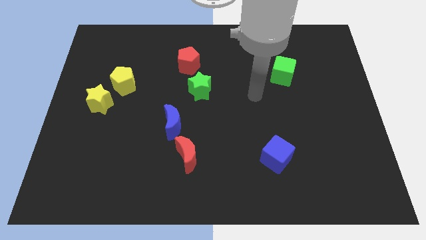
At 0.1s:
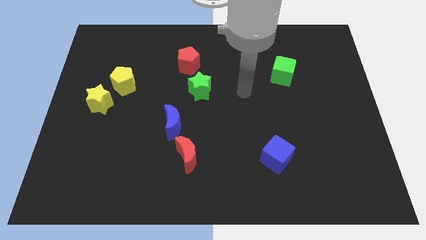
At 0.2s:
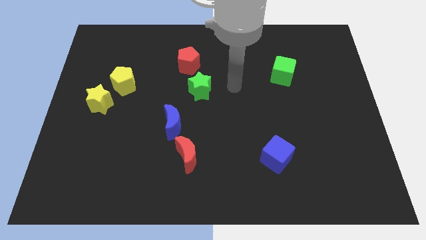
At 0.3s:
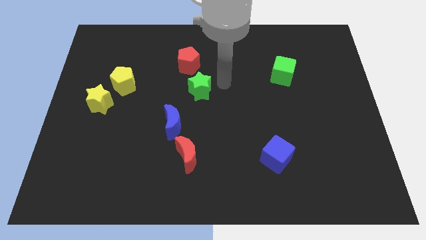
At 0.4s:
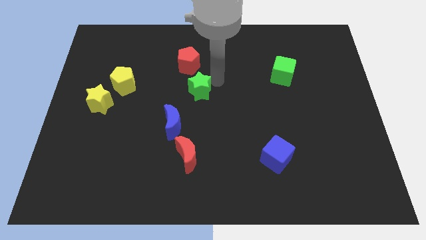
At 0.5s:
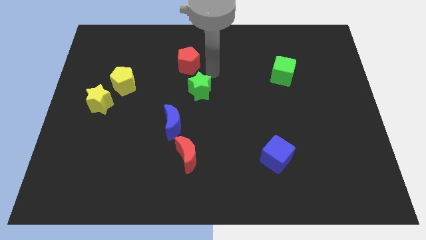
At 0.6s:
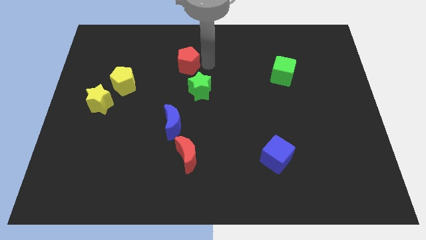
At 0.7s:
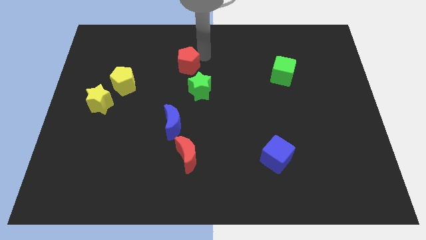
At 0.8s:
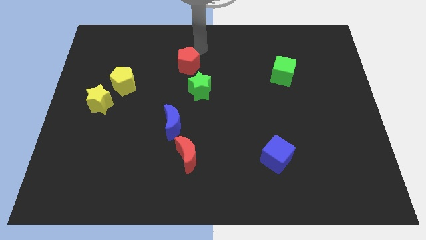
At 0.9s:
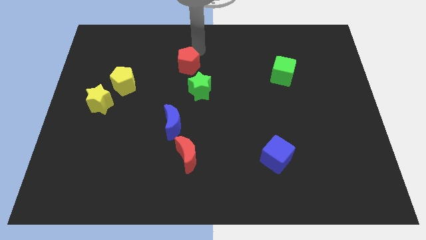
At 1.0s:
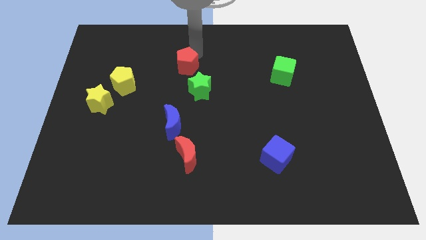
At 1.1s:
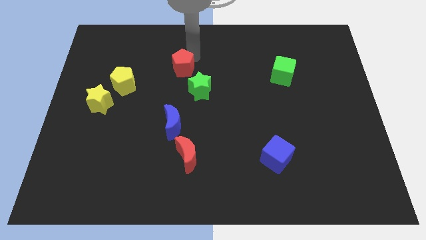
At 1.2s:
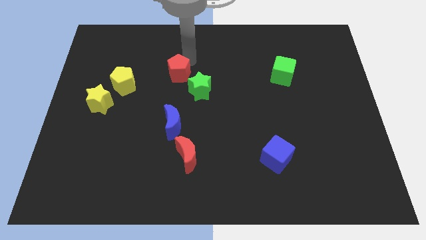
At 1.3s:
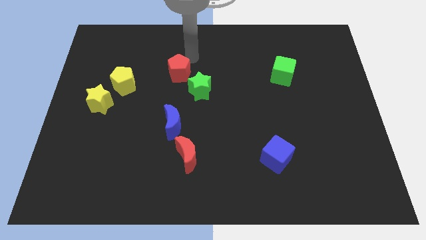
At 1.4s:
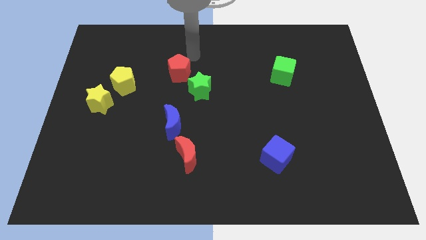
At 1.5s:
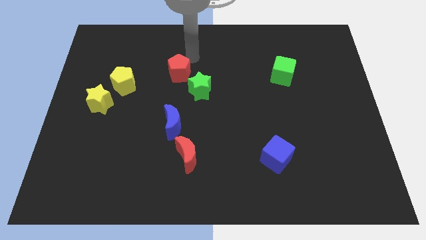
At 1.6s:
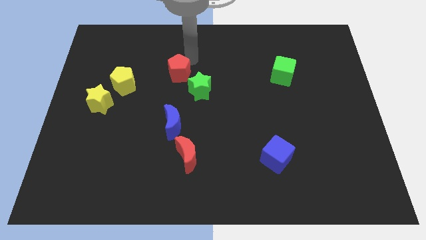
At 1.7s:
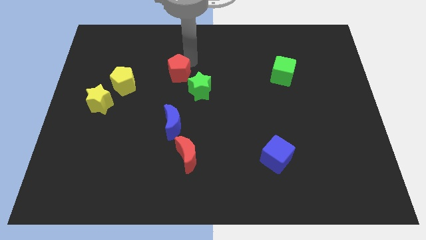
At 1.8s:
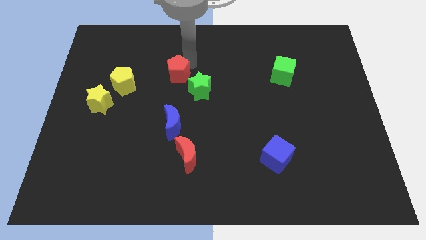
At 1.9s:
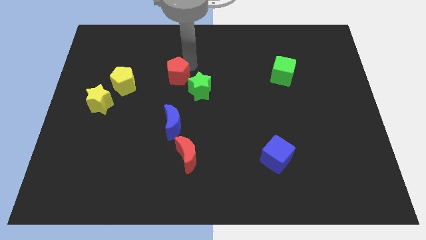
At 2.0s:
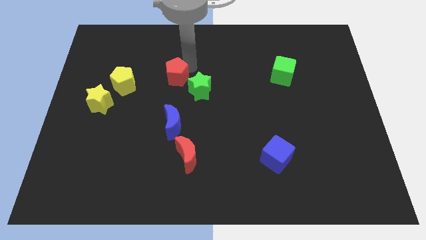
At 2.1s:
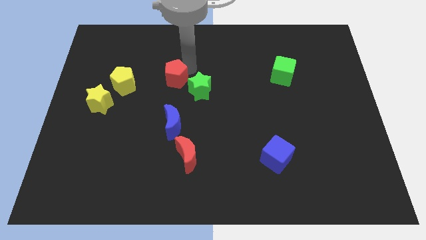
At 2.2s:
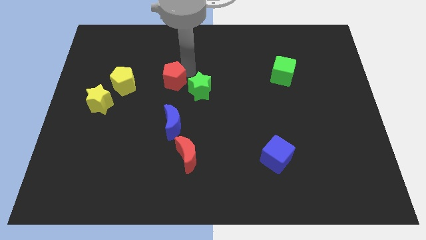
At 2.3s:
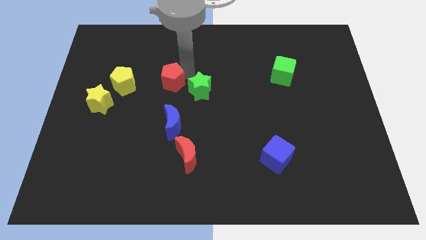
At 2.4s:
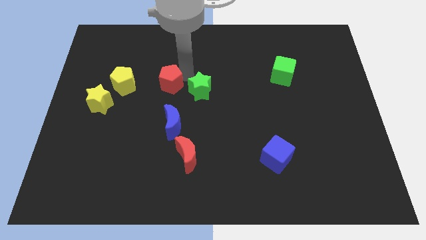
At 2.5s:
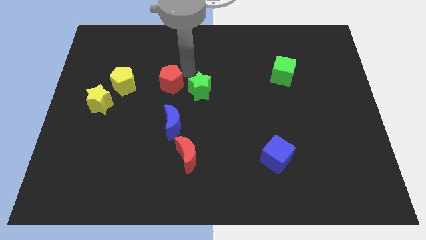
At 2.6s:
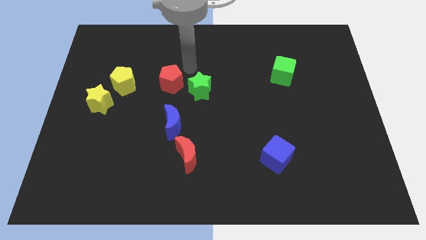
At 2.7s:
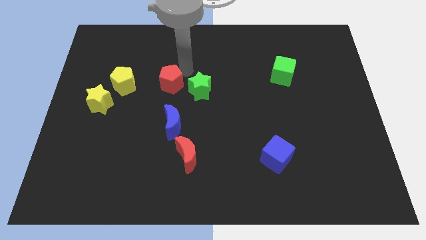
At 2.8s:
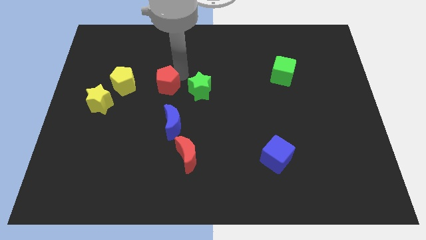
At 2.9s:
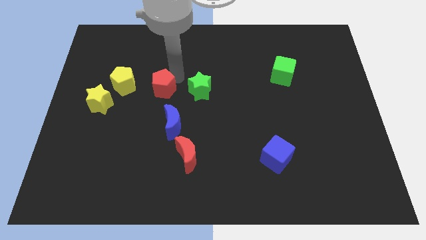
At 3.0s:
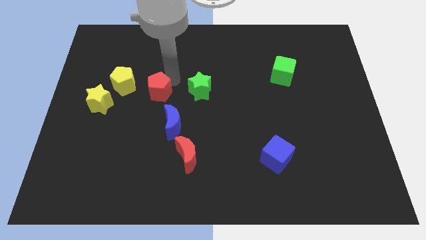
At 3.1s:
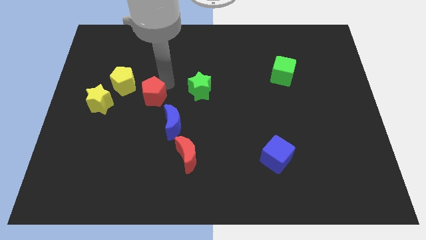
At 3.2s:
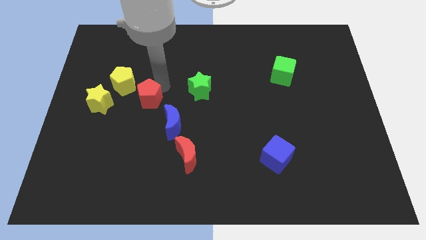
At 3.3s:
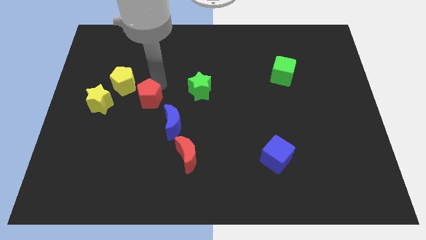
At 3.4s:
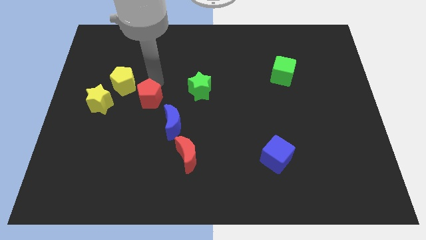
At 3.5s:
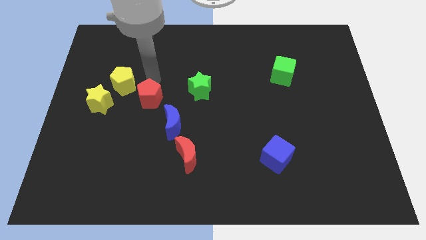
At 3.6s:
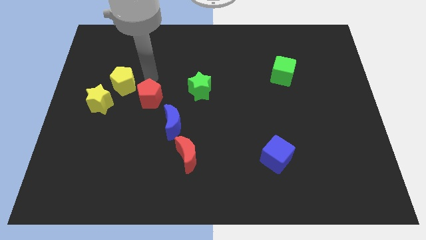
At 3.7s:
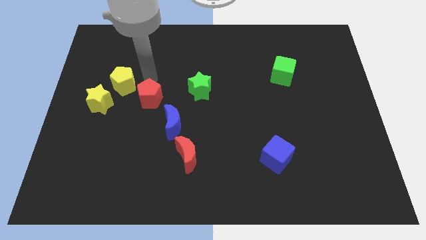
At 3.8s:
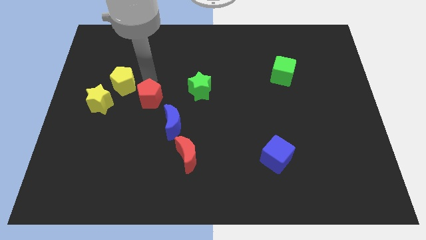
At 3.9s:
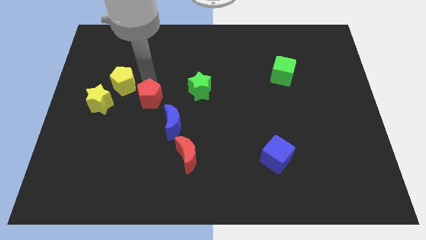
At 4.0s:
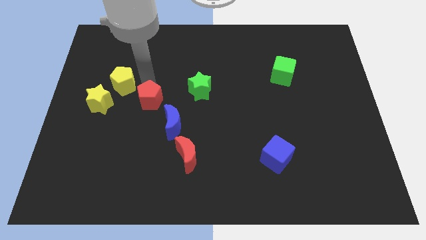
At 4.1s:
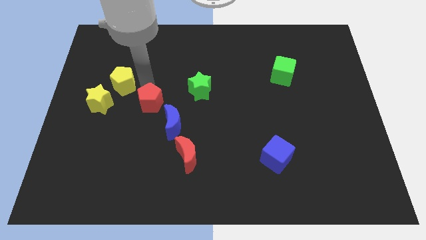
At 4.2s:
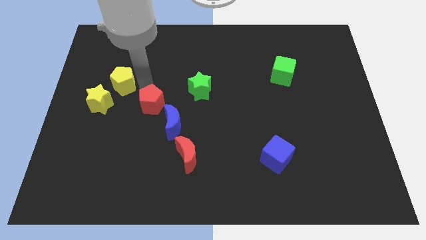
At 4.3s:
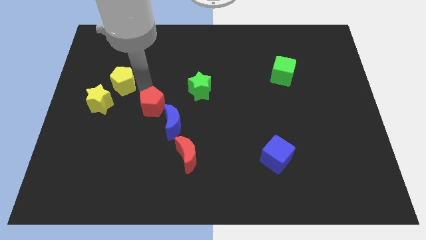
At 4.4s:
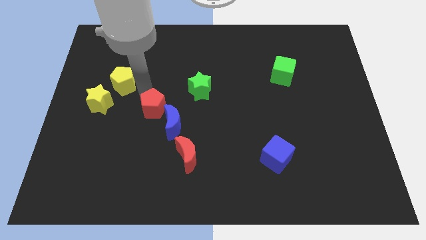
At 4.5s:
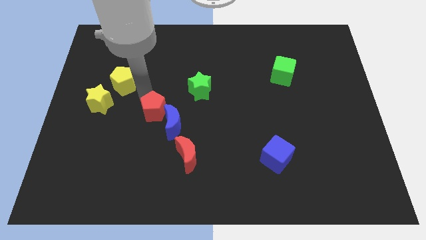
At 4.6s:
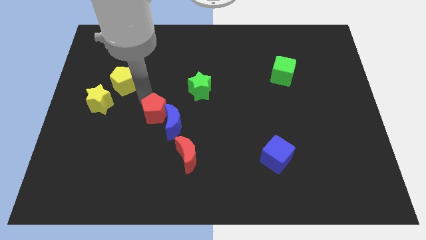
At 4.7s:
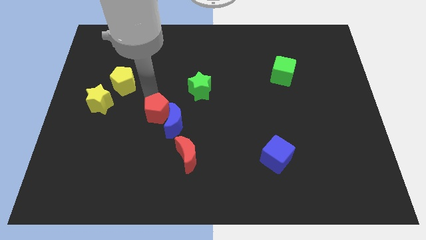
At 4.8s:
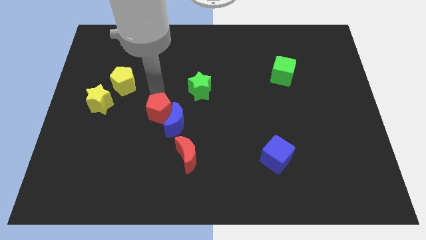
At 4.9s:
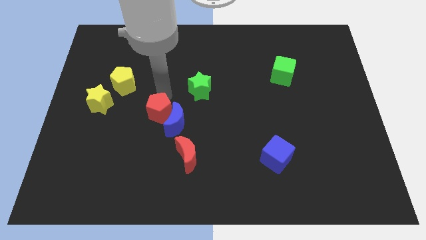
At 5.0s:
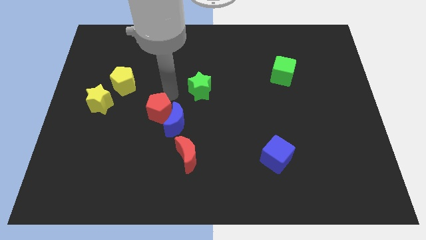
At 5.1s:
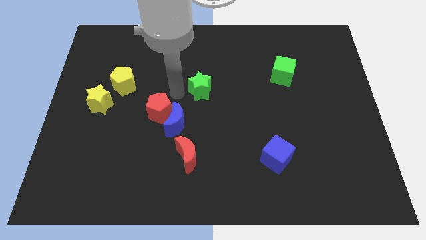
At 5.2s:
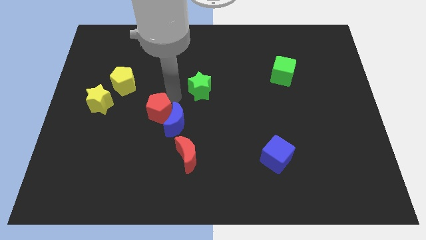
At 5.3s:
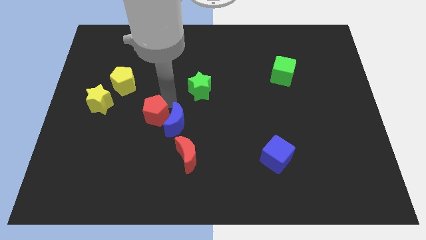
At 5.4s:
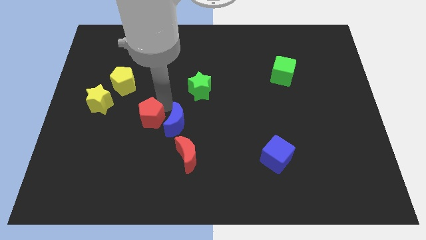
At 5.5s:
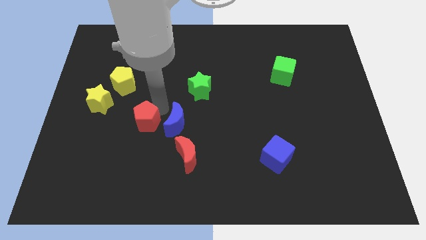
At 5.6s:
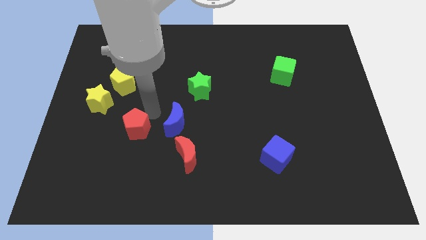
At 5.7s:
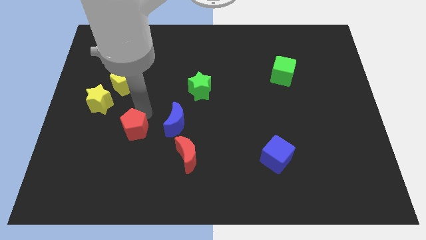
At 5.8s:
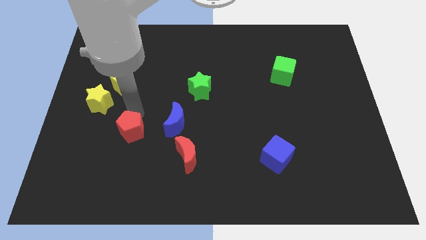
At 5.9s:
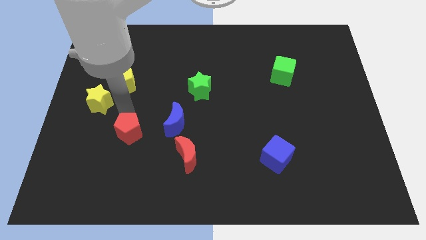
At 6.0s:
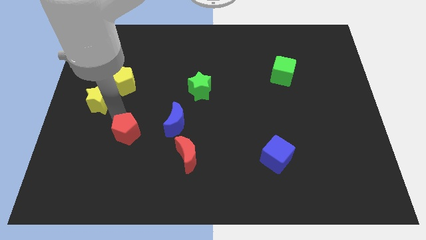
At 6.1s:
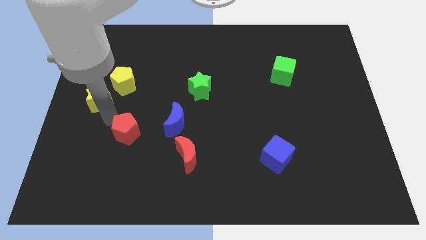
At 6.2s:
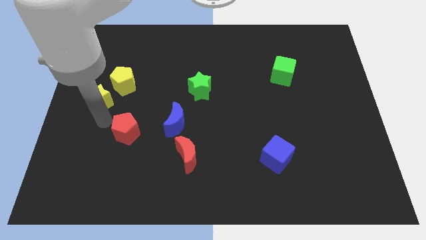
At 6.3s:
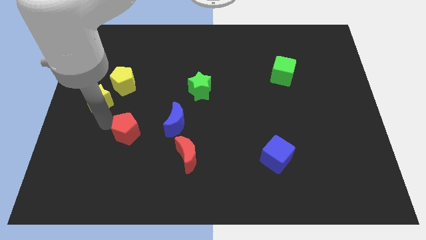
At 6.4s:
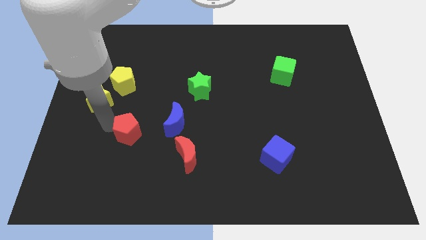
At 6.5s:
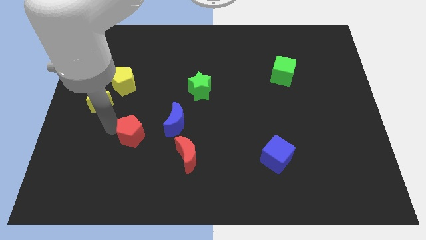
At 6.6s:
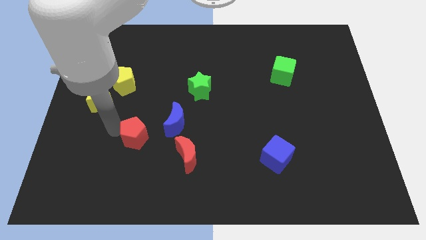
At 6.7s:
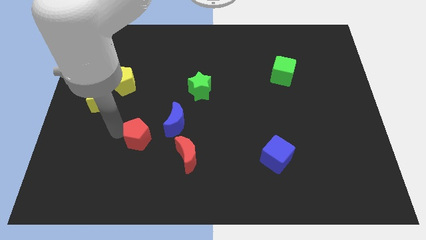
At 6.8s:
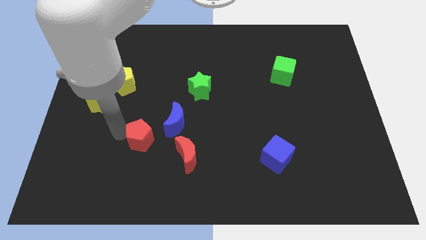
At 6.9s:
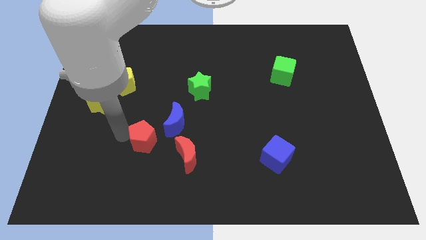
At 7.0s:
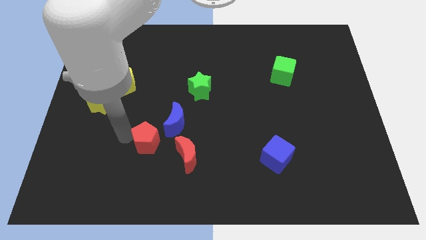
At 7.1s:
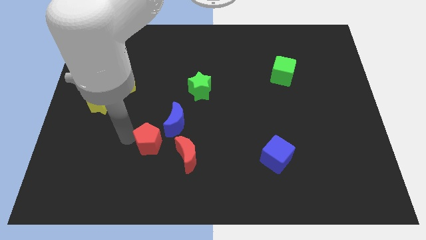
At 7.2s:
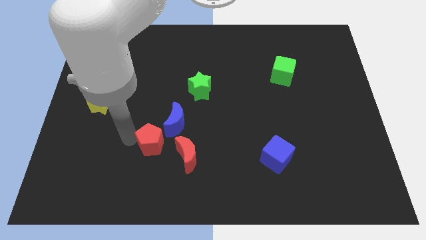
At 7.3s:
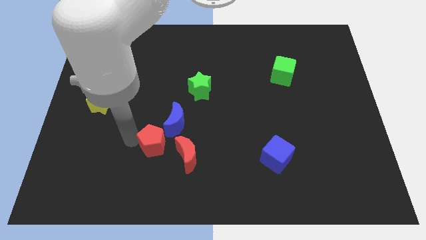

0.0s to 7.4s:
put the red pentagon below the blue moon

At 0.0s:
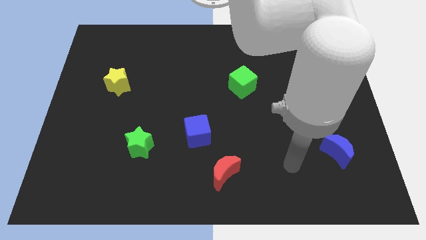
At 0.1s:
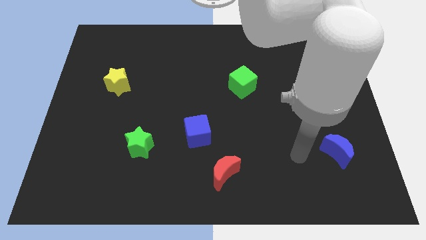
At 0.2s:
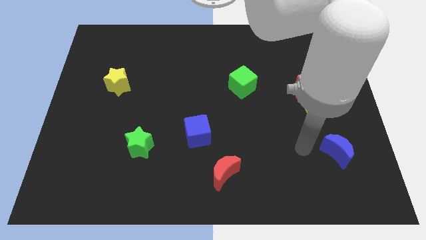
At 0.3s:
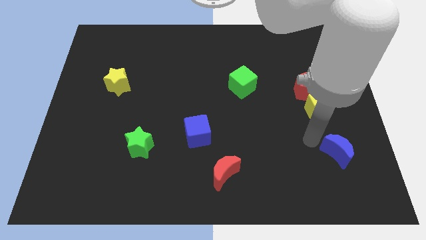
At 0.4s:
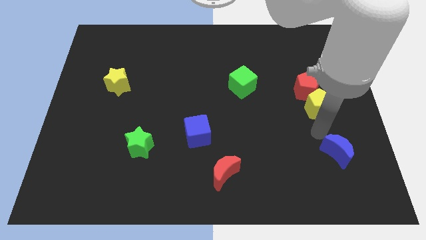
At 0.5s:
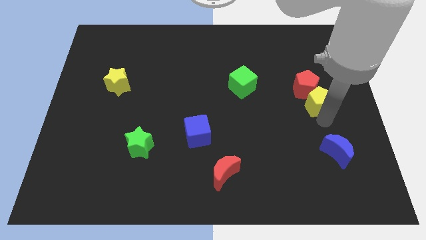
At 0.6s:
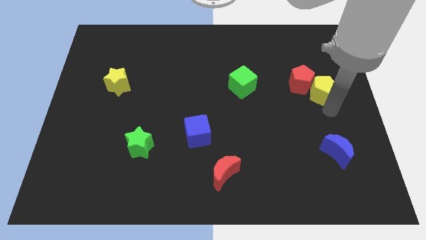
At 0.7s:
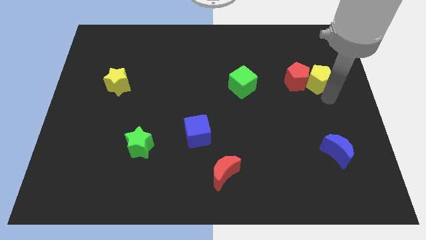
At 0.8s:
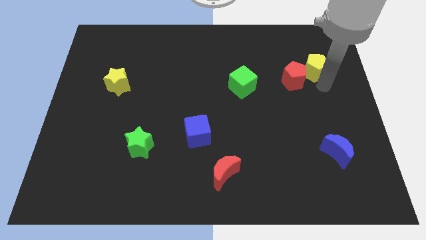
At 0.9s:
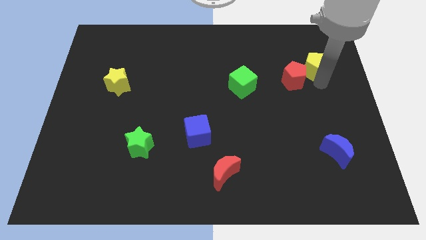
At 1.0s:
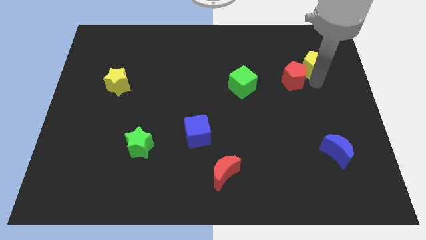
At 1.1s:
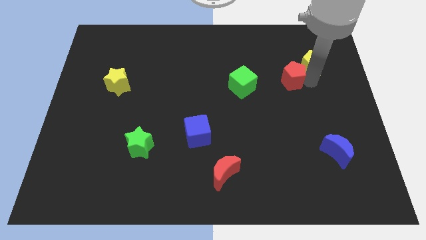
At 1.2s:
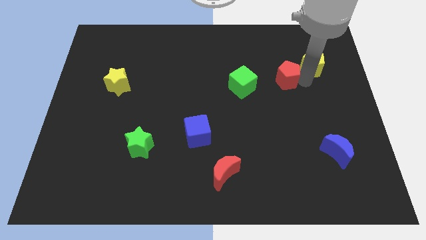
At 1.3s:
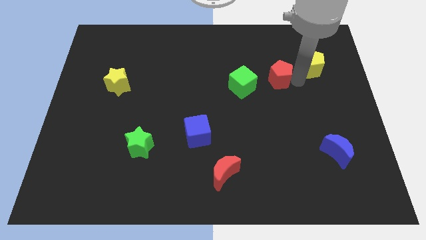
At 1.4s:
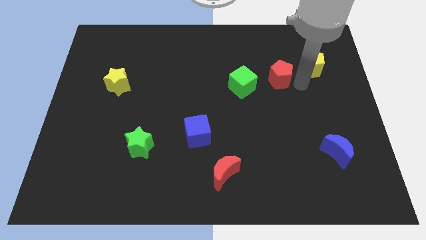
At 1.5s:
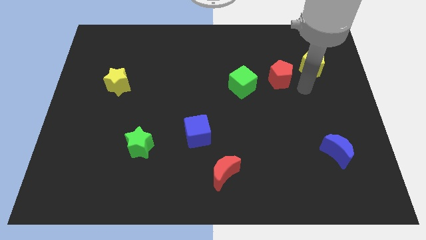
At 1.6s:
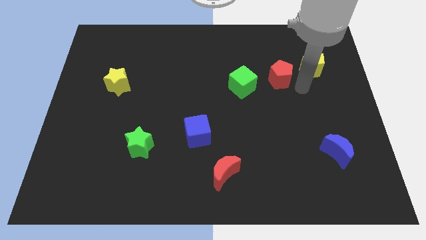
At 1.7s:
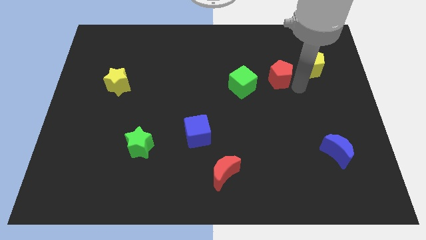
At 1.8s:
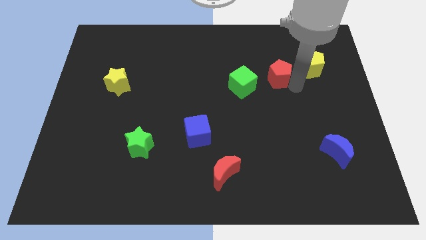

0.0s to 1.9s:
slide the red pentagon to the top right of the green cube
